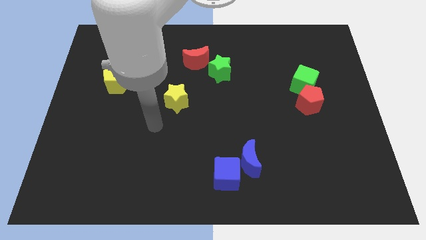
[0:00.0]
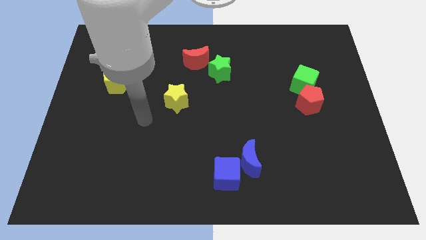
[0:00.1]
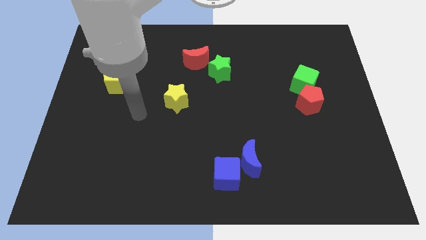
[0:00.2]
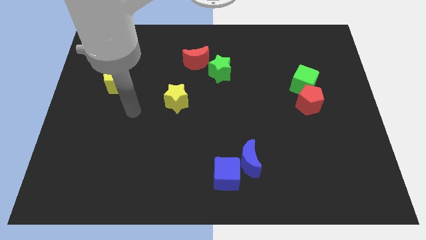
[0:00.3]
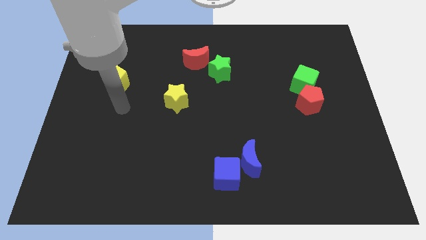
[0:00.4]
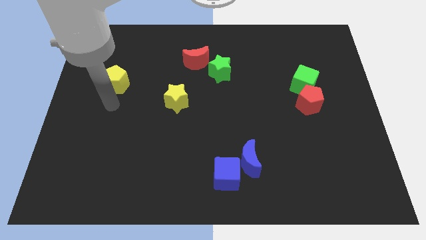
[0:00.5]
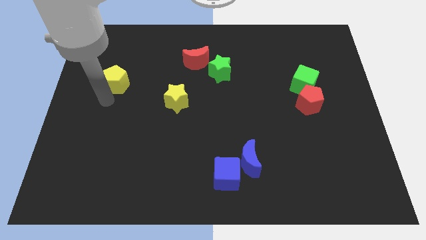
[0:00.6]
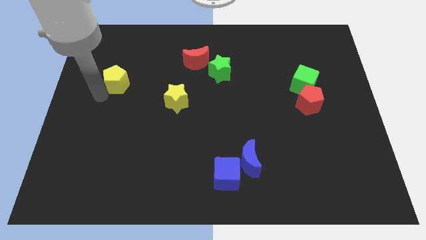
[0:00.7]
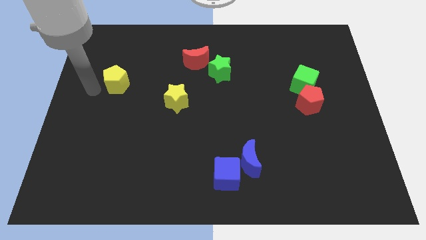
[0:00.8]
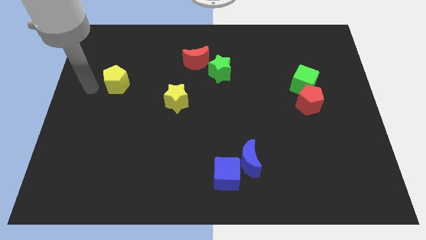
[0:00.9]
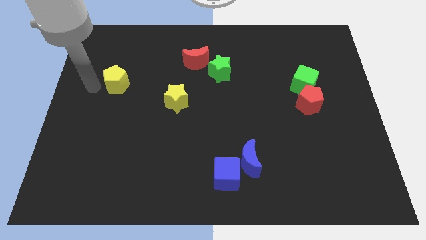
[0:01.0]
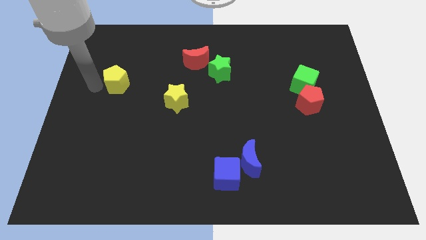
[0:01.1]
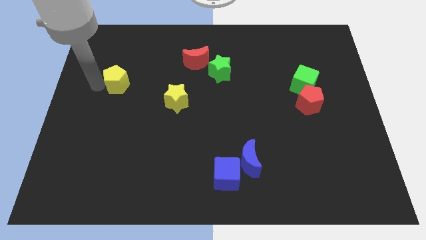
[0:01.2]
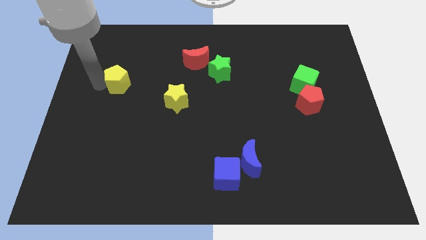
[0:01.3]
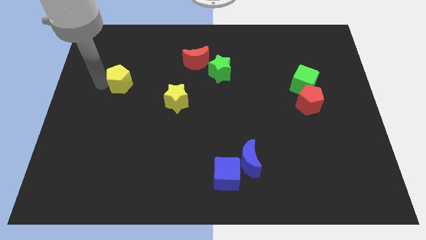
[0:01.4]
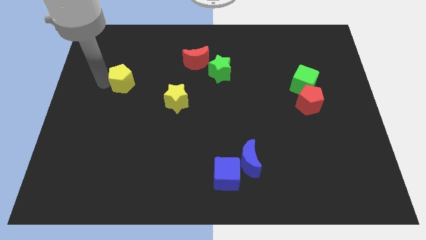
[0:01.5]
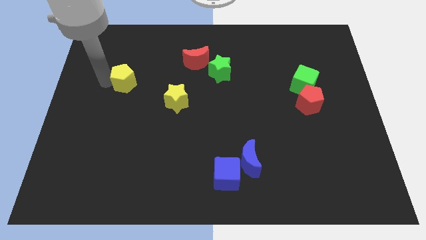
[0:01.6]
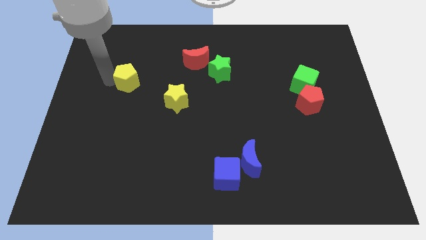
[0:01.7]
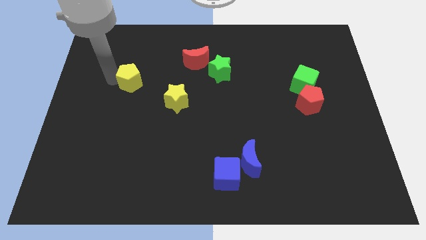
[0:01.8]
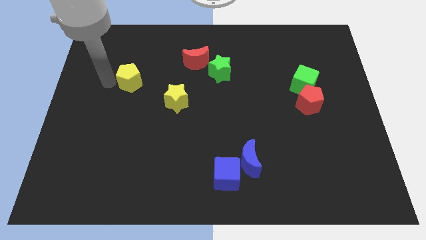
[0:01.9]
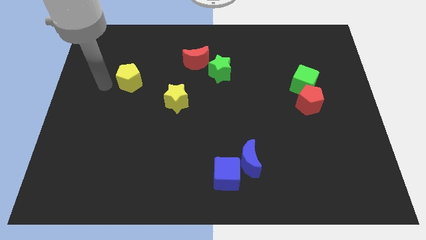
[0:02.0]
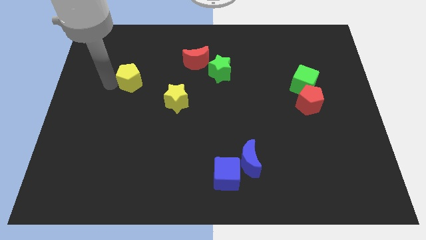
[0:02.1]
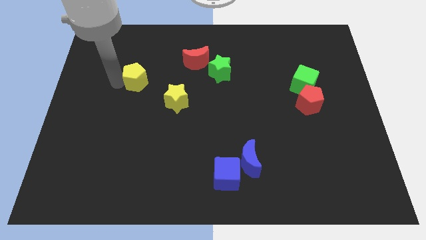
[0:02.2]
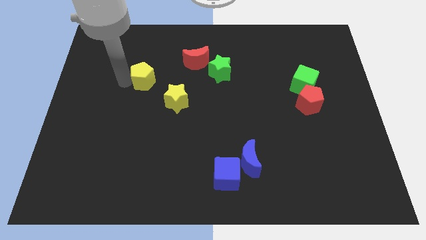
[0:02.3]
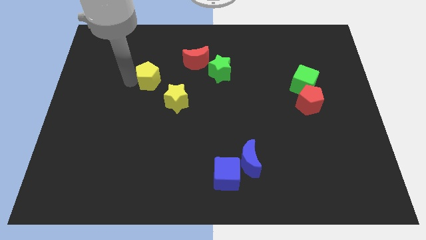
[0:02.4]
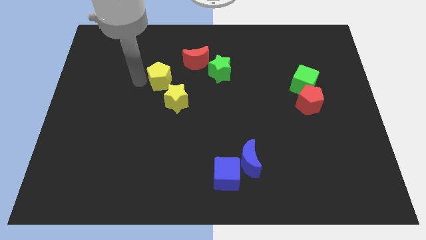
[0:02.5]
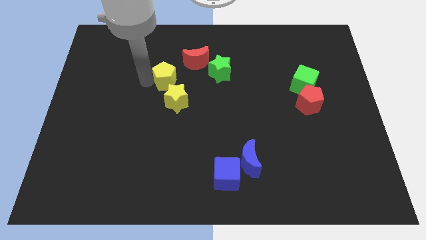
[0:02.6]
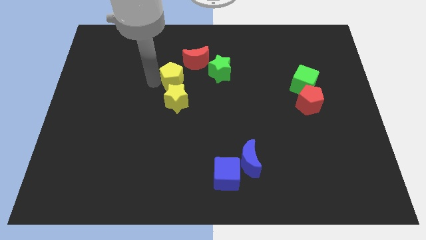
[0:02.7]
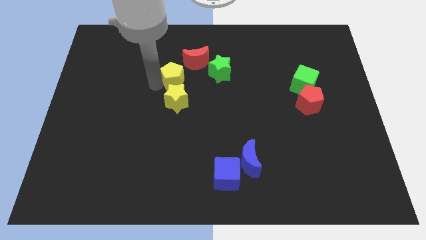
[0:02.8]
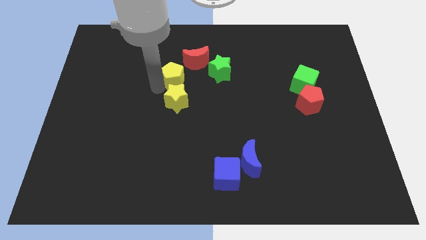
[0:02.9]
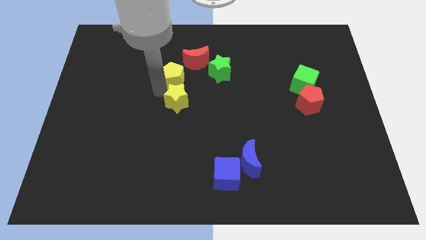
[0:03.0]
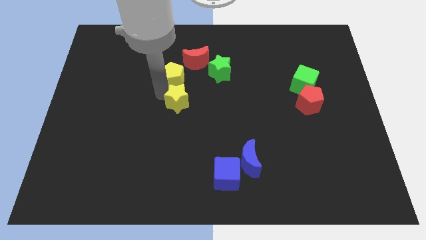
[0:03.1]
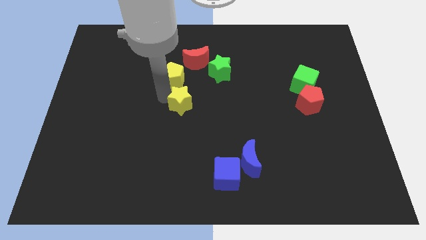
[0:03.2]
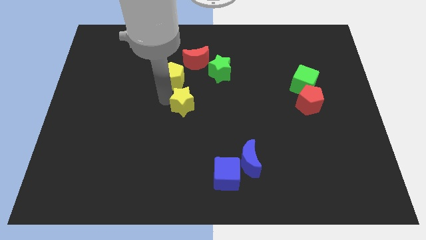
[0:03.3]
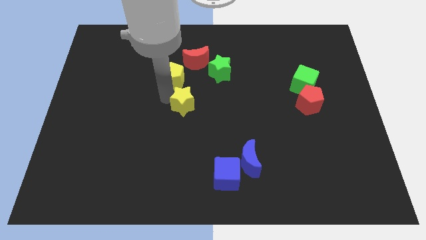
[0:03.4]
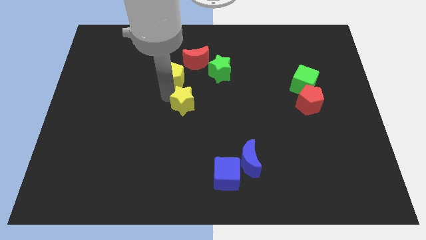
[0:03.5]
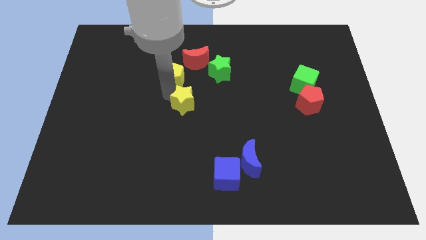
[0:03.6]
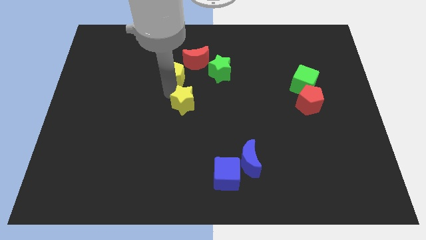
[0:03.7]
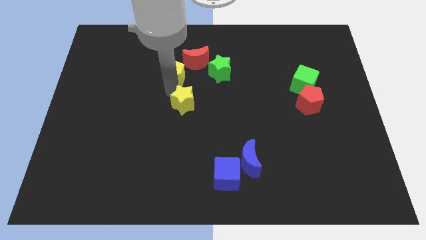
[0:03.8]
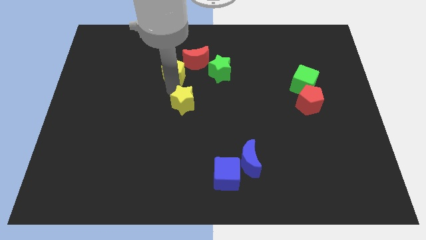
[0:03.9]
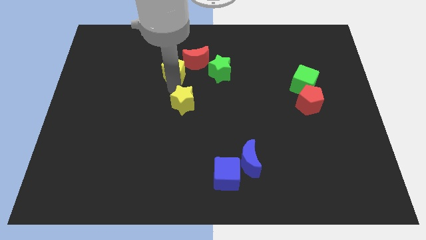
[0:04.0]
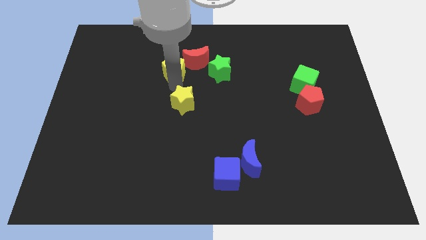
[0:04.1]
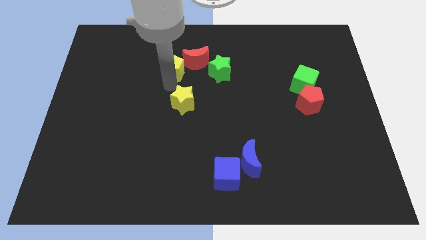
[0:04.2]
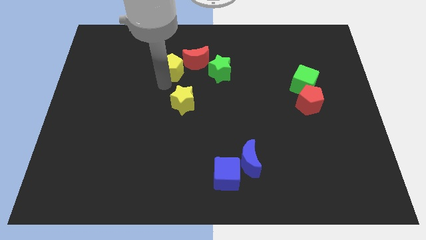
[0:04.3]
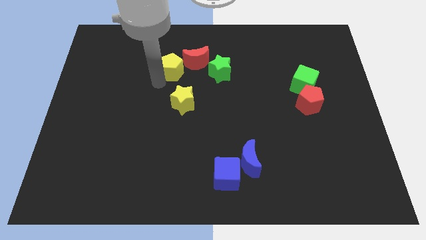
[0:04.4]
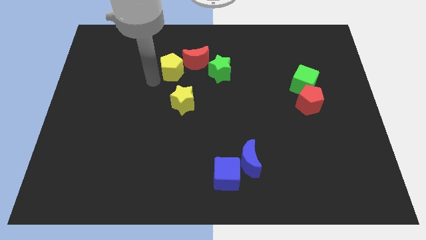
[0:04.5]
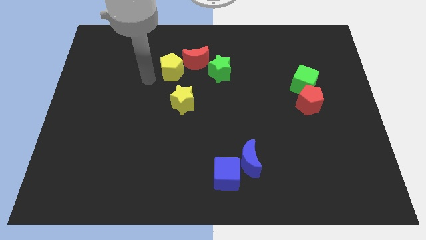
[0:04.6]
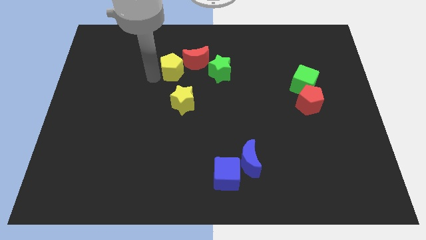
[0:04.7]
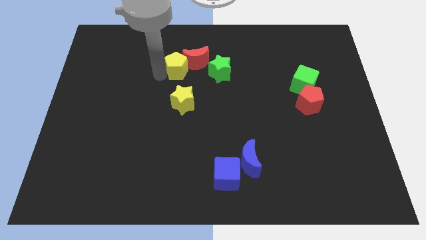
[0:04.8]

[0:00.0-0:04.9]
slide the yellow pentagon close to the red moon

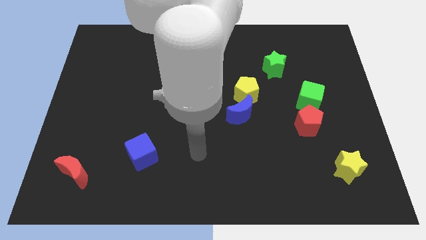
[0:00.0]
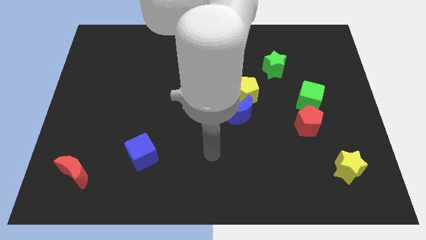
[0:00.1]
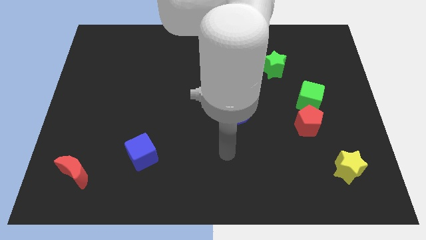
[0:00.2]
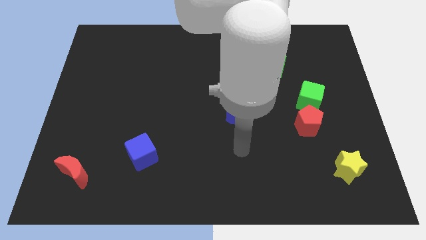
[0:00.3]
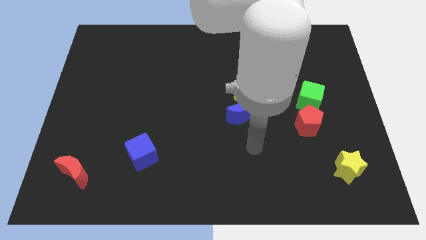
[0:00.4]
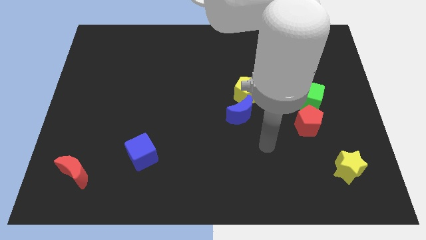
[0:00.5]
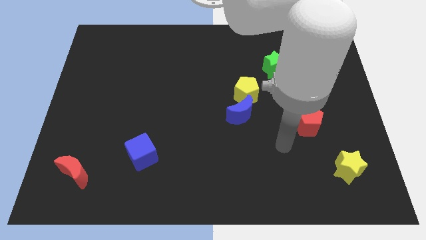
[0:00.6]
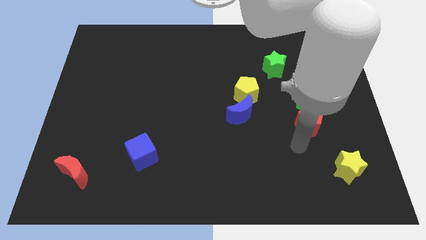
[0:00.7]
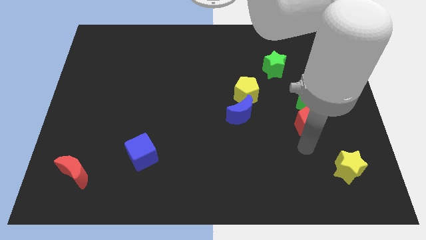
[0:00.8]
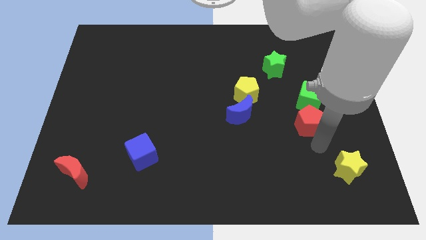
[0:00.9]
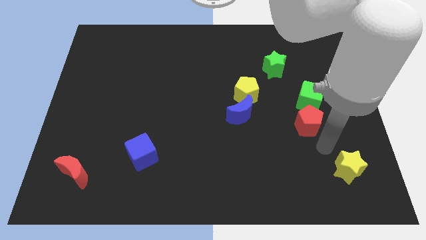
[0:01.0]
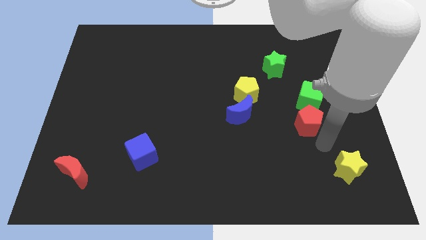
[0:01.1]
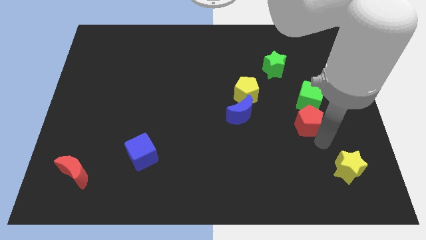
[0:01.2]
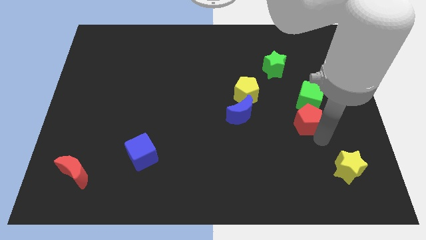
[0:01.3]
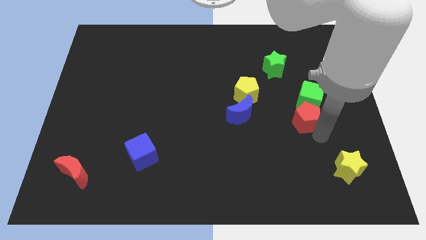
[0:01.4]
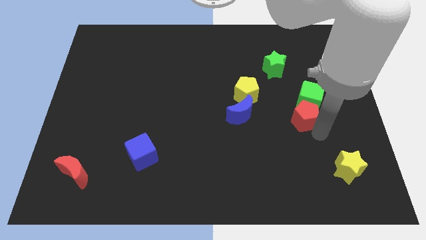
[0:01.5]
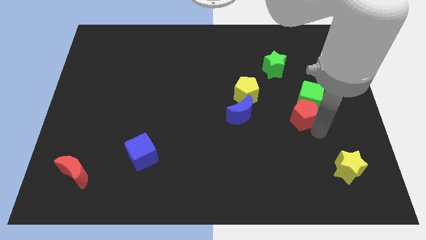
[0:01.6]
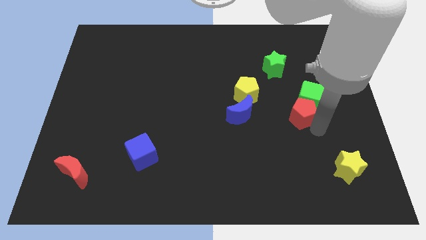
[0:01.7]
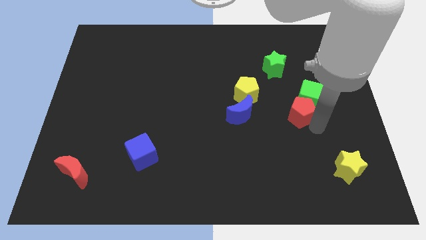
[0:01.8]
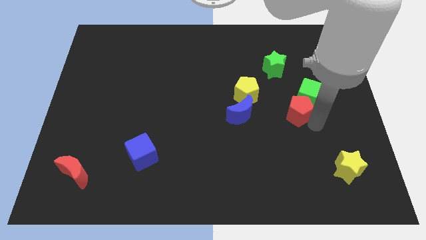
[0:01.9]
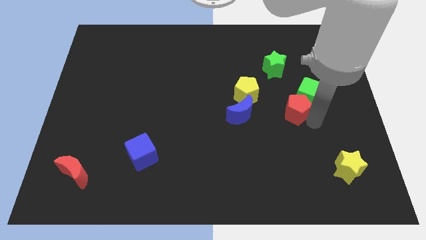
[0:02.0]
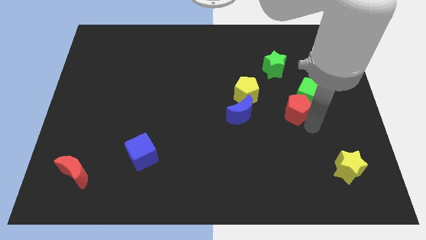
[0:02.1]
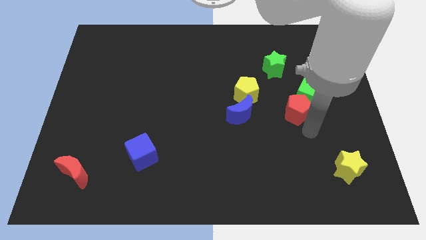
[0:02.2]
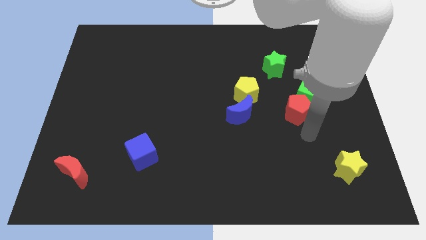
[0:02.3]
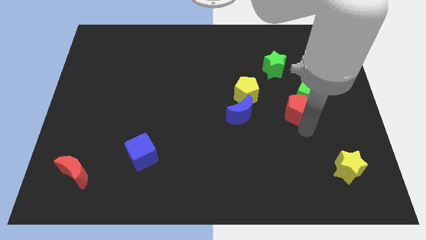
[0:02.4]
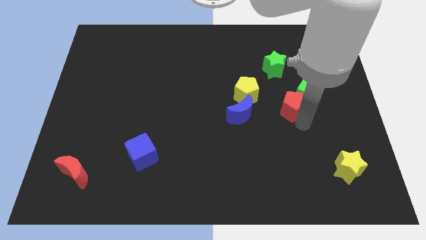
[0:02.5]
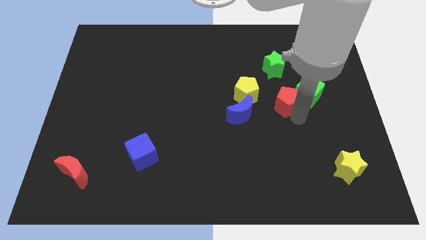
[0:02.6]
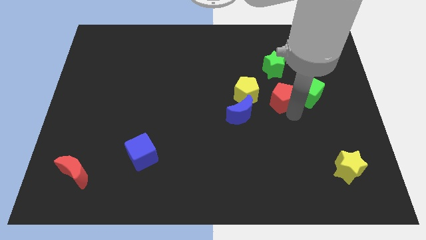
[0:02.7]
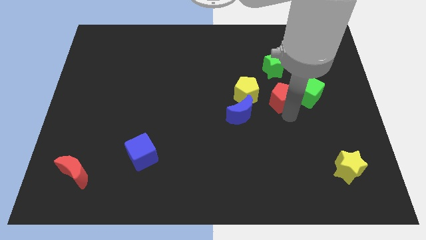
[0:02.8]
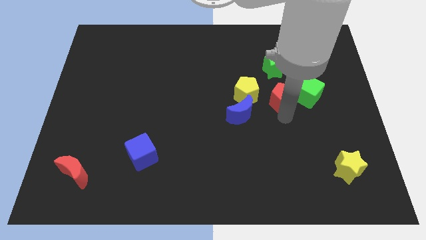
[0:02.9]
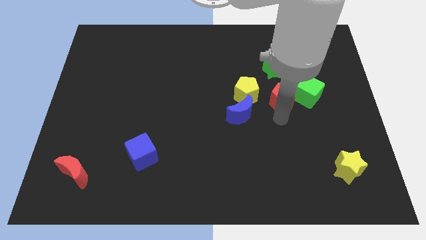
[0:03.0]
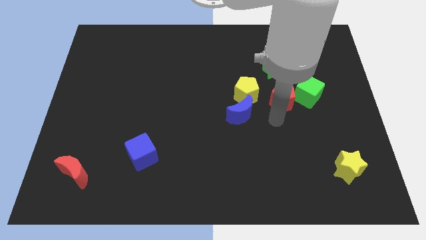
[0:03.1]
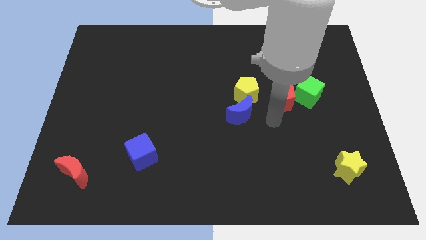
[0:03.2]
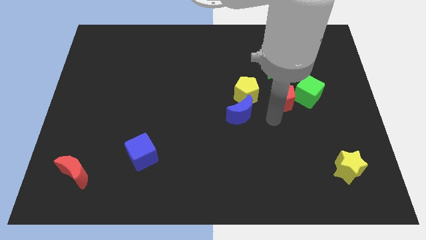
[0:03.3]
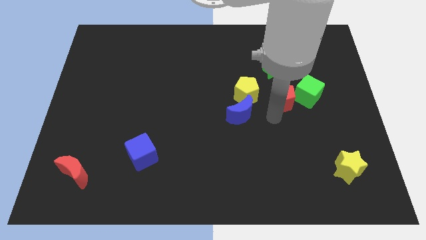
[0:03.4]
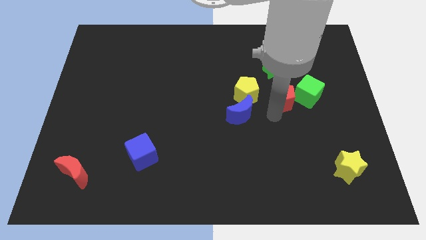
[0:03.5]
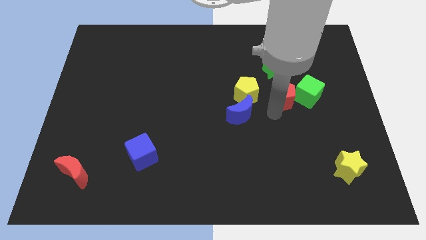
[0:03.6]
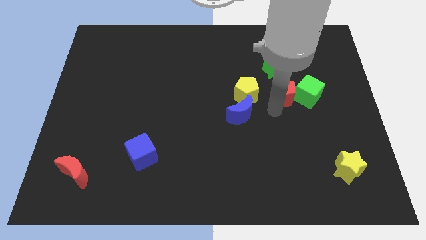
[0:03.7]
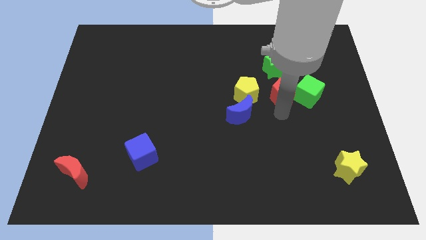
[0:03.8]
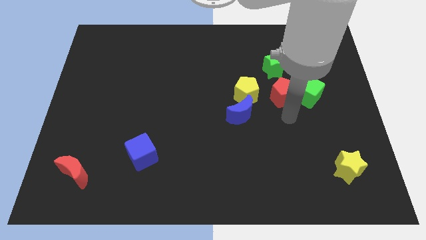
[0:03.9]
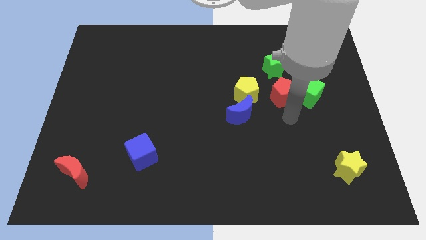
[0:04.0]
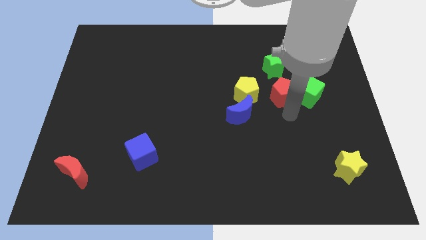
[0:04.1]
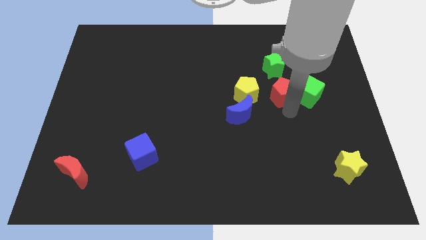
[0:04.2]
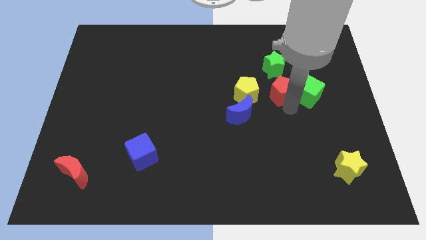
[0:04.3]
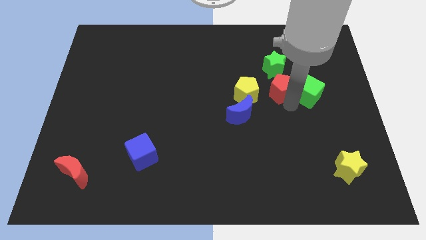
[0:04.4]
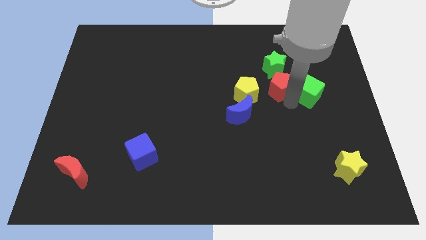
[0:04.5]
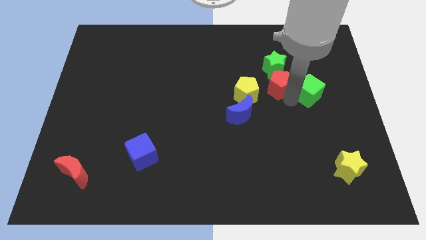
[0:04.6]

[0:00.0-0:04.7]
slide the red pentagon to the green star
